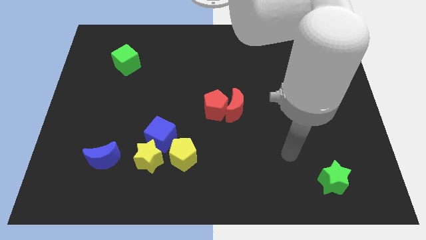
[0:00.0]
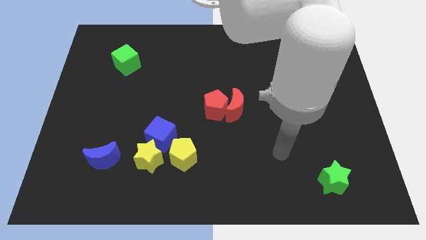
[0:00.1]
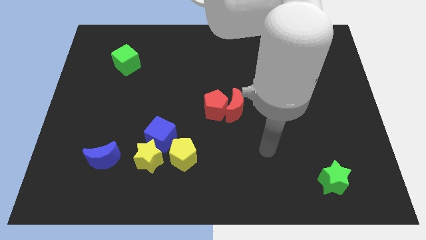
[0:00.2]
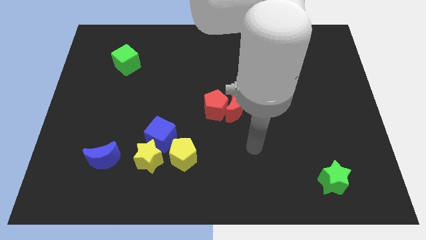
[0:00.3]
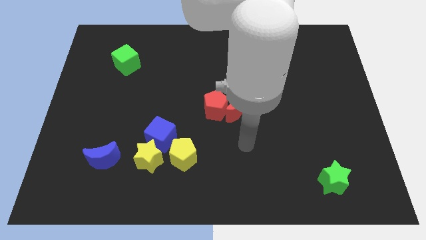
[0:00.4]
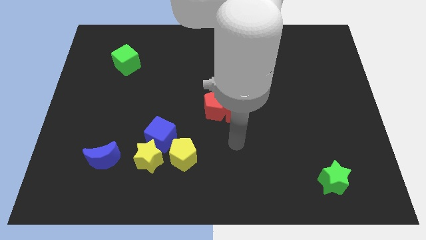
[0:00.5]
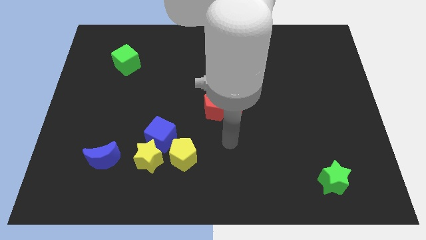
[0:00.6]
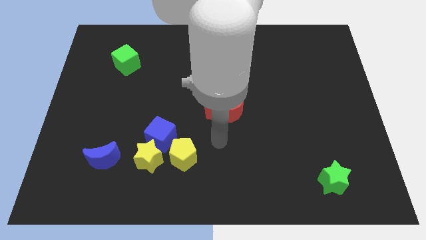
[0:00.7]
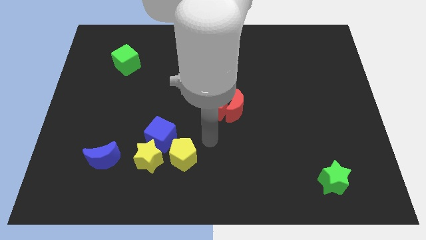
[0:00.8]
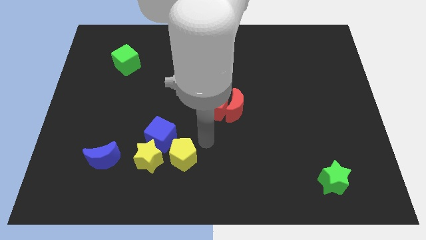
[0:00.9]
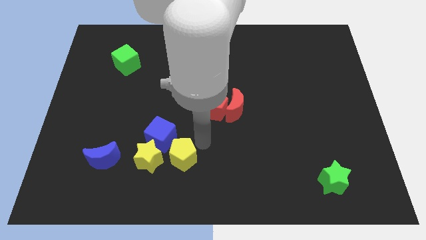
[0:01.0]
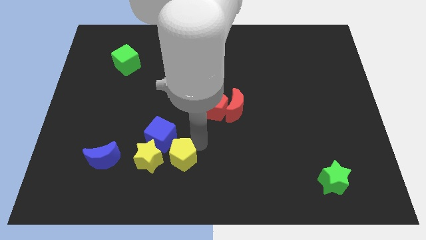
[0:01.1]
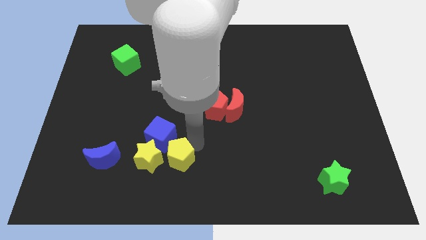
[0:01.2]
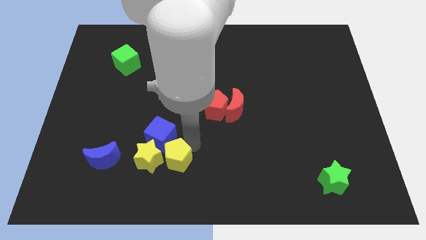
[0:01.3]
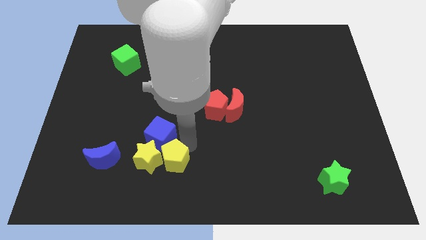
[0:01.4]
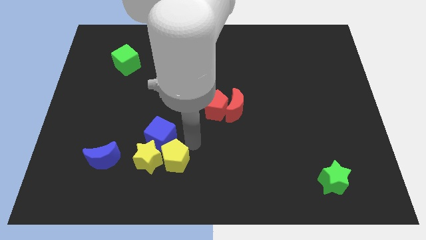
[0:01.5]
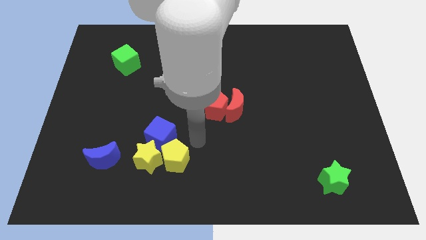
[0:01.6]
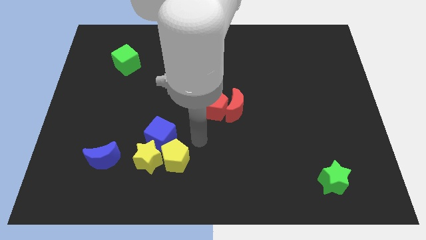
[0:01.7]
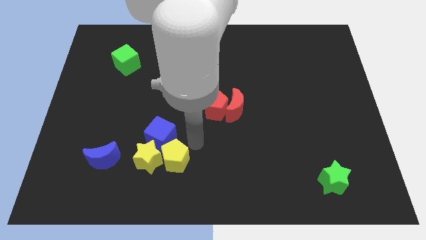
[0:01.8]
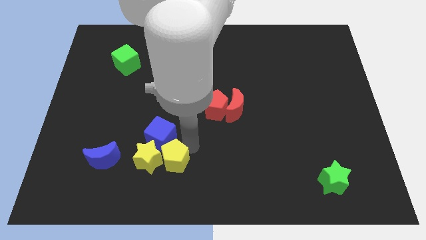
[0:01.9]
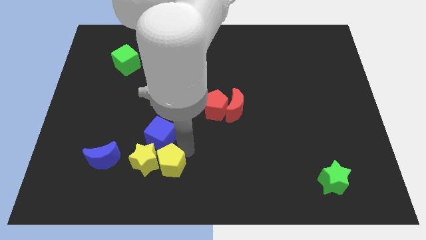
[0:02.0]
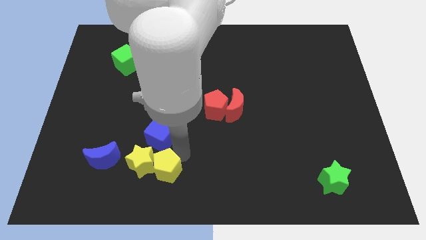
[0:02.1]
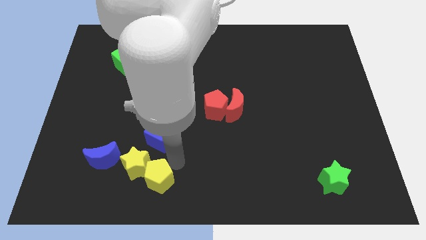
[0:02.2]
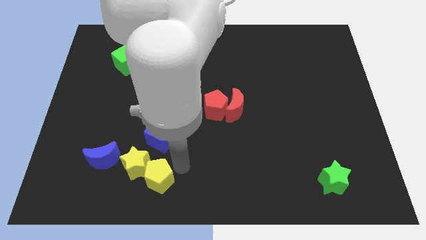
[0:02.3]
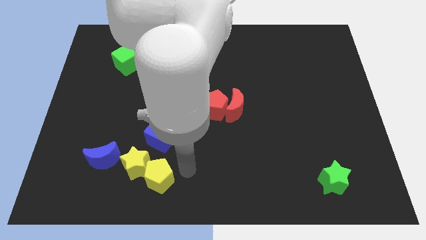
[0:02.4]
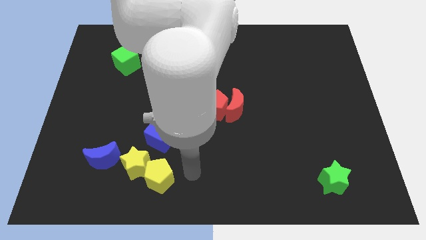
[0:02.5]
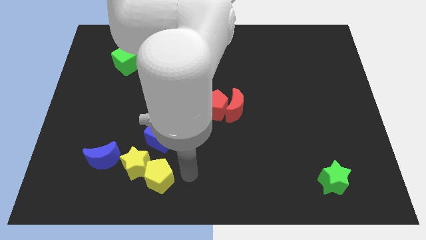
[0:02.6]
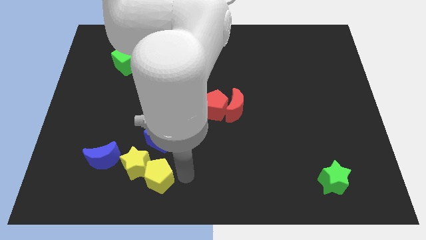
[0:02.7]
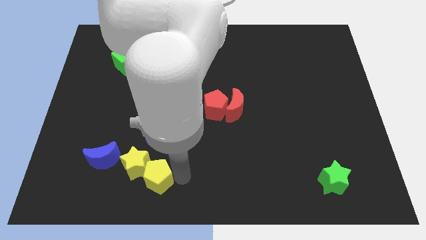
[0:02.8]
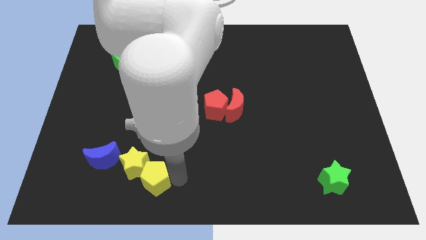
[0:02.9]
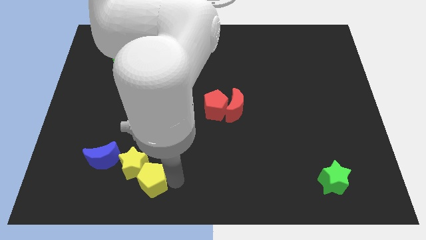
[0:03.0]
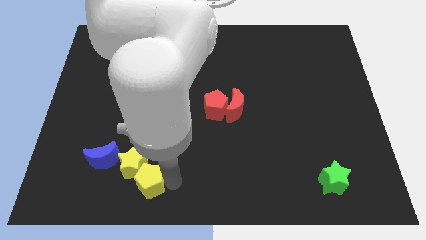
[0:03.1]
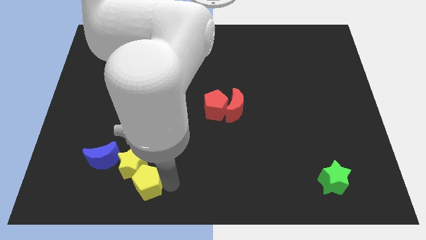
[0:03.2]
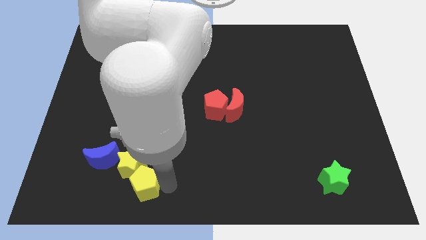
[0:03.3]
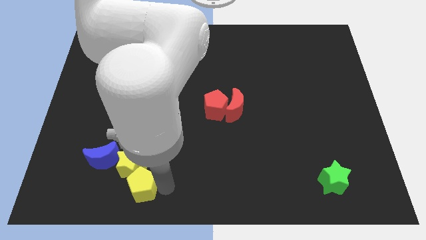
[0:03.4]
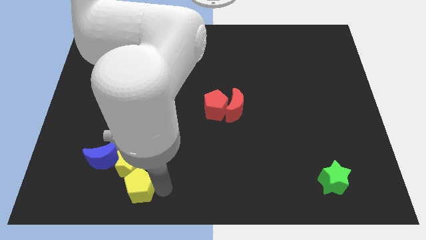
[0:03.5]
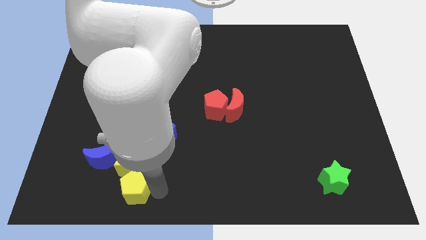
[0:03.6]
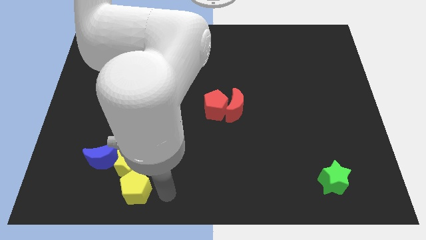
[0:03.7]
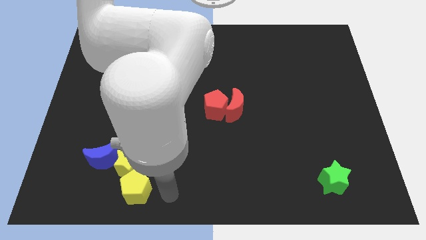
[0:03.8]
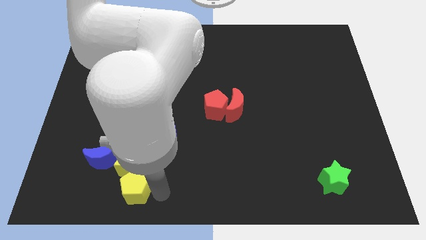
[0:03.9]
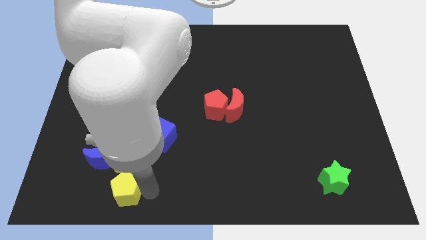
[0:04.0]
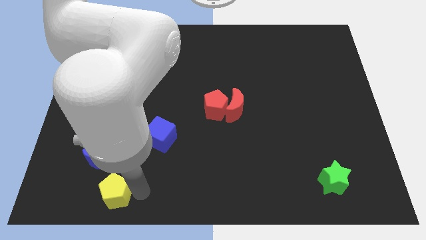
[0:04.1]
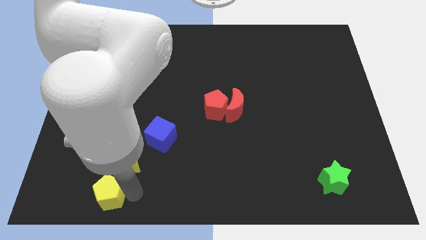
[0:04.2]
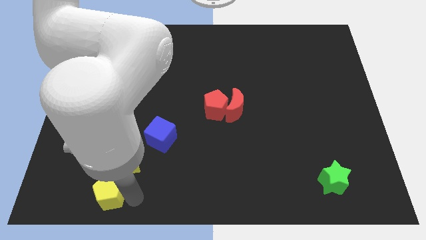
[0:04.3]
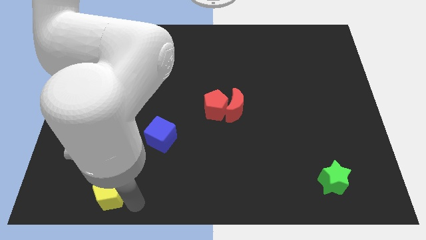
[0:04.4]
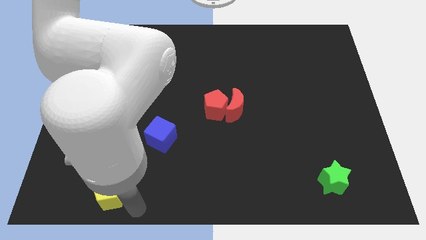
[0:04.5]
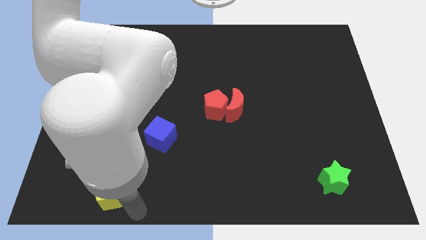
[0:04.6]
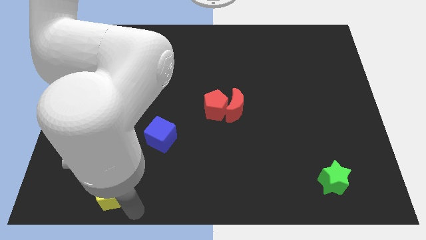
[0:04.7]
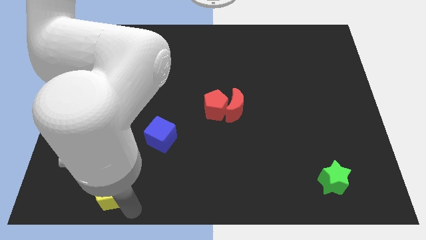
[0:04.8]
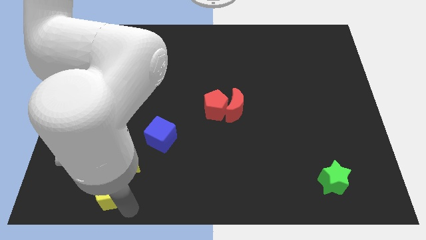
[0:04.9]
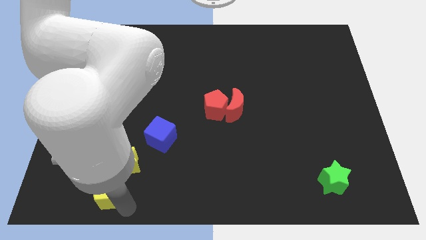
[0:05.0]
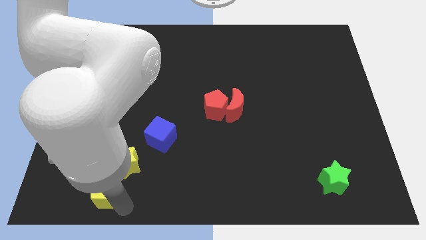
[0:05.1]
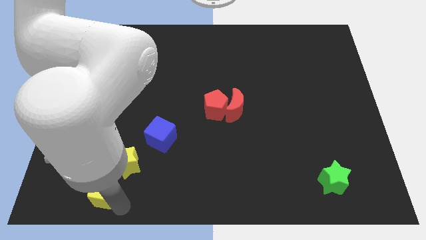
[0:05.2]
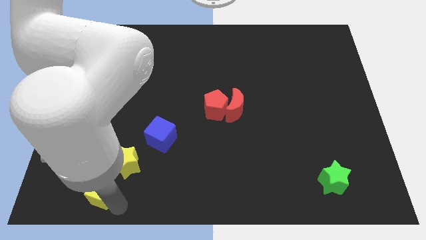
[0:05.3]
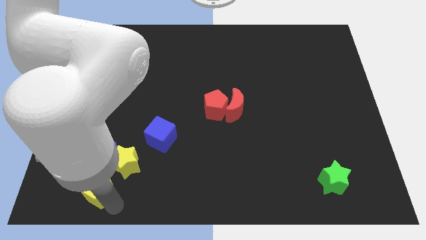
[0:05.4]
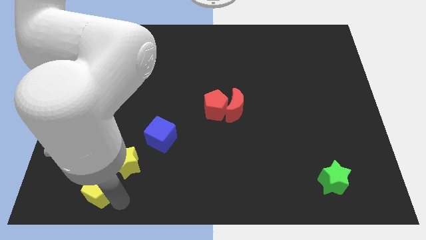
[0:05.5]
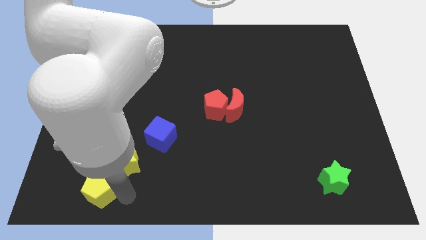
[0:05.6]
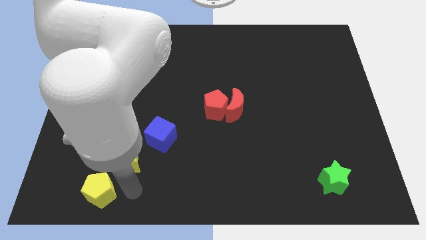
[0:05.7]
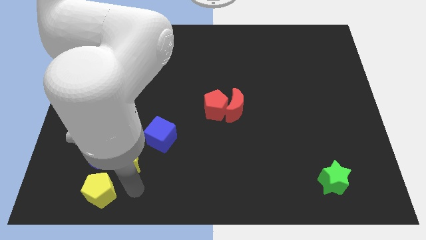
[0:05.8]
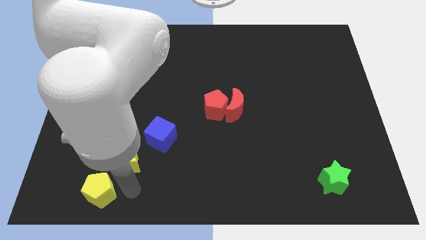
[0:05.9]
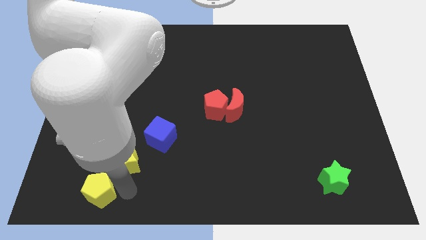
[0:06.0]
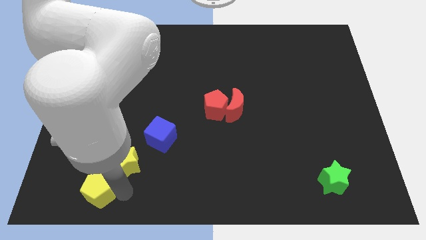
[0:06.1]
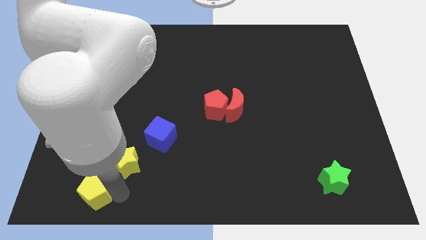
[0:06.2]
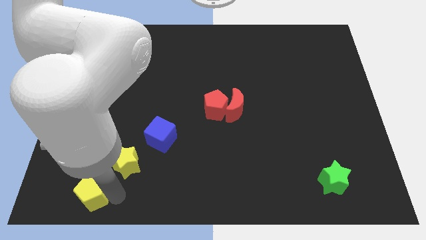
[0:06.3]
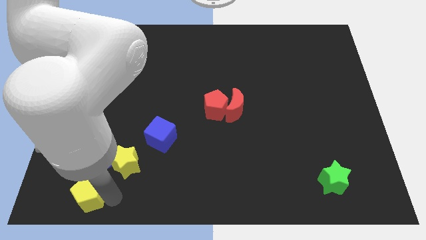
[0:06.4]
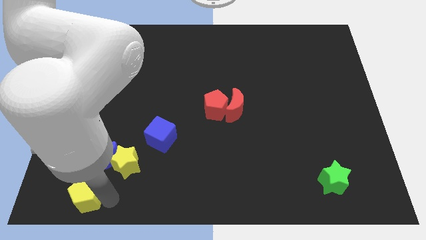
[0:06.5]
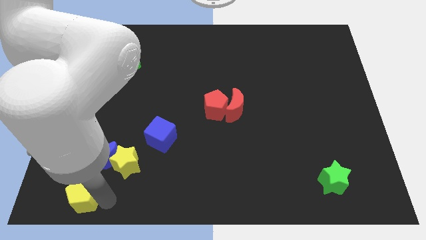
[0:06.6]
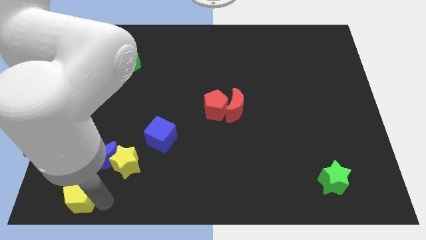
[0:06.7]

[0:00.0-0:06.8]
push the yellow pentagon to the lower left corner
